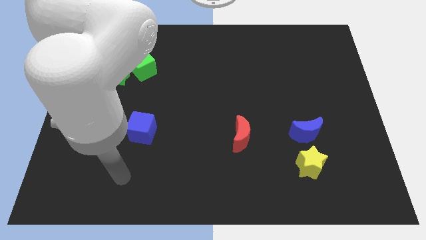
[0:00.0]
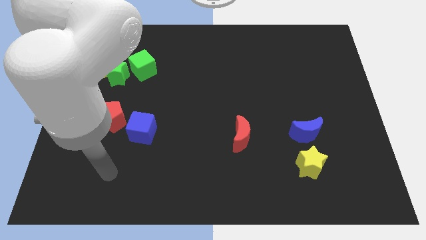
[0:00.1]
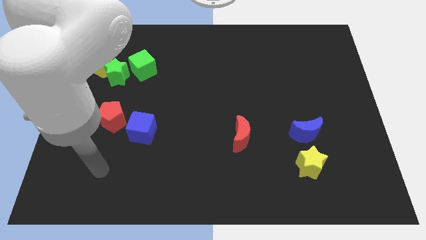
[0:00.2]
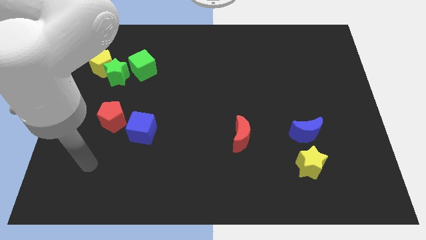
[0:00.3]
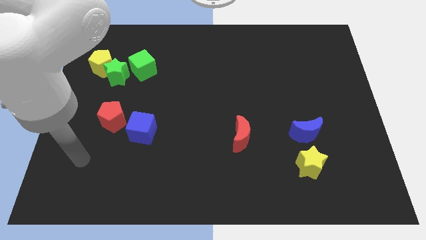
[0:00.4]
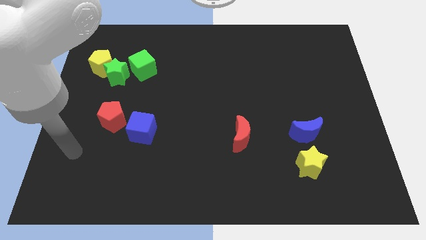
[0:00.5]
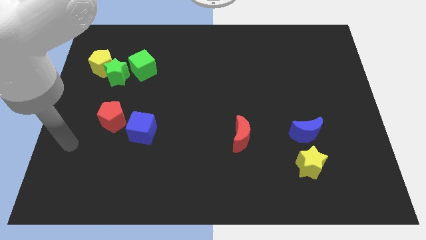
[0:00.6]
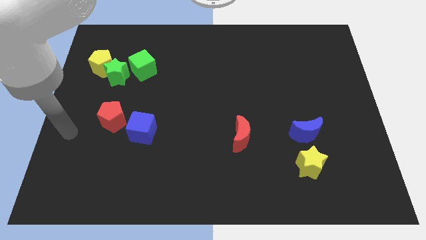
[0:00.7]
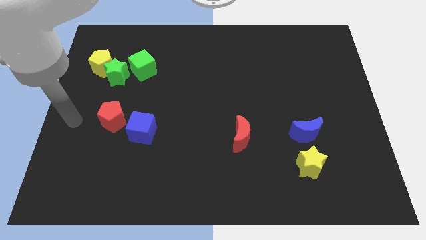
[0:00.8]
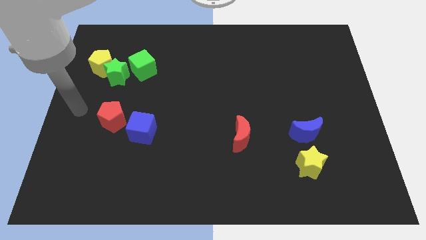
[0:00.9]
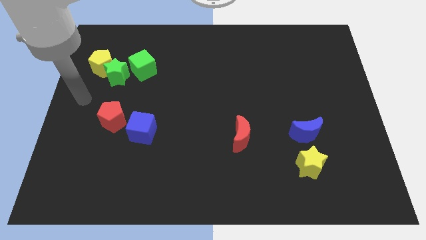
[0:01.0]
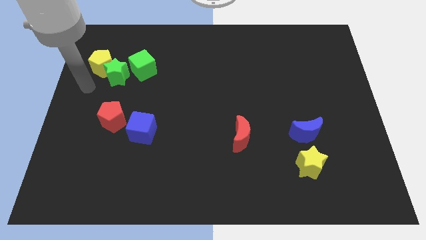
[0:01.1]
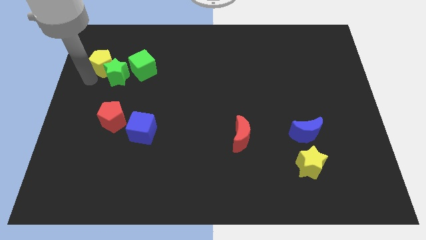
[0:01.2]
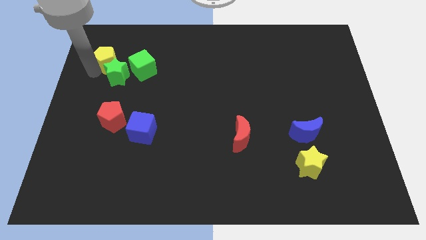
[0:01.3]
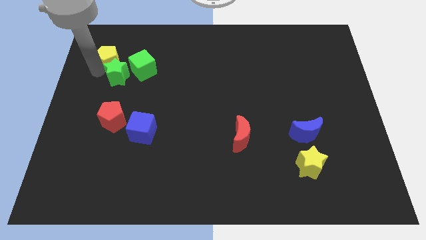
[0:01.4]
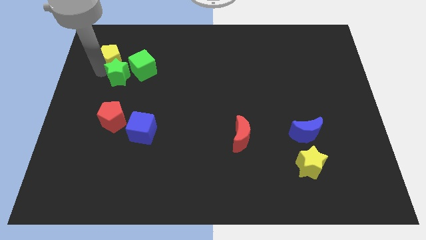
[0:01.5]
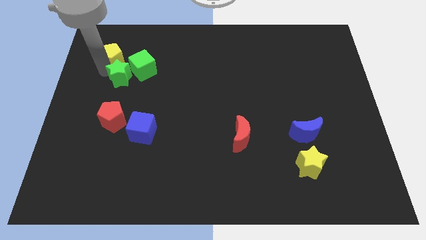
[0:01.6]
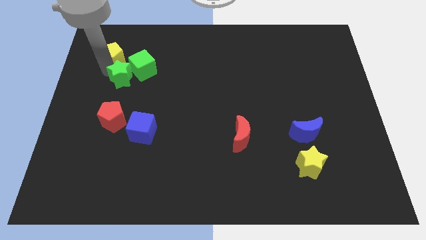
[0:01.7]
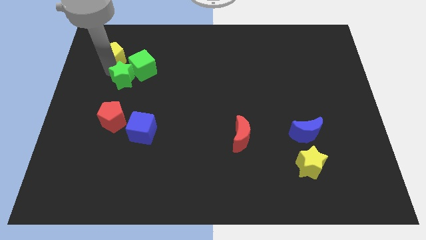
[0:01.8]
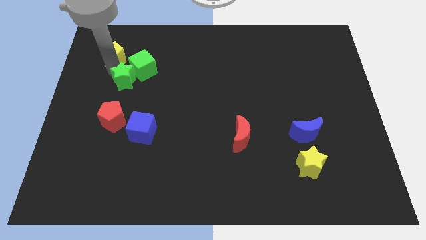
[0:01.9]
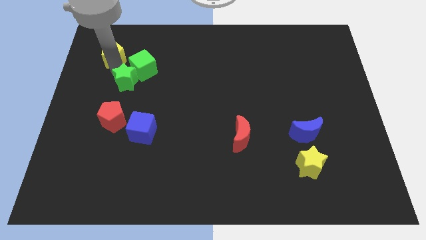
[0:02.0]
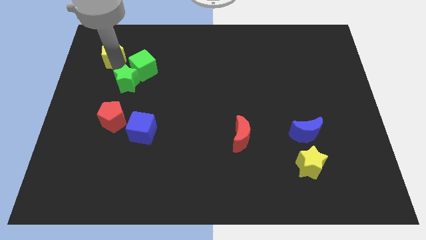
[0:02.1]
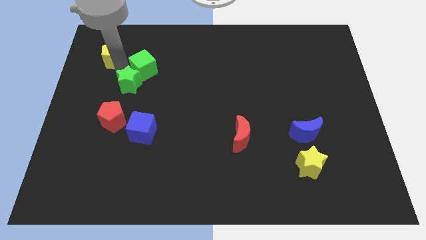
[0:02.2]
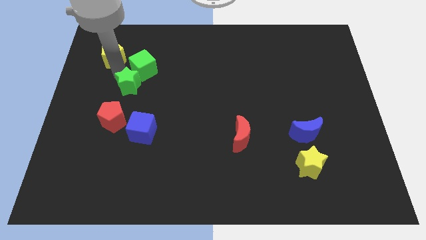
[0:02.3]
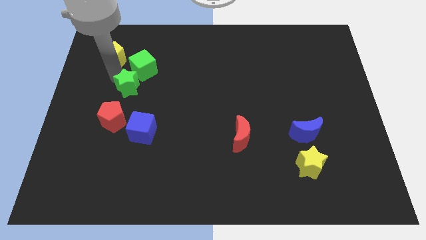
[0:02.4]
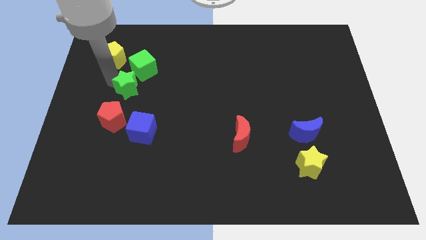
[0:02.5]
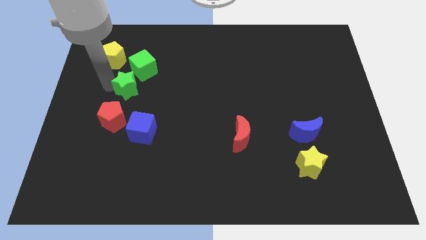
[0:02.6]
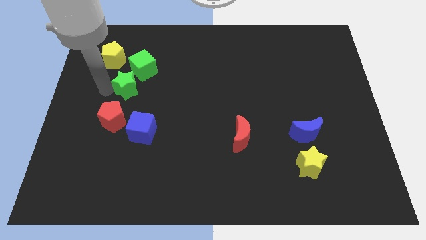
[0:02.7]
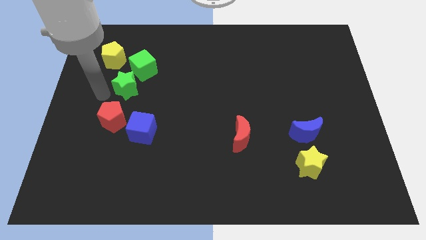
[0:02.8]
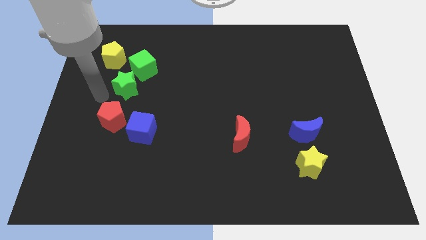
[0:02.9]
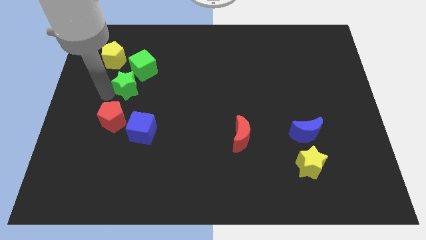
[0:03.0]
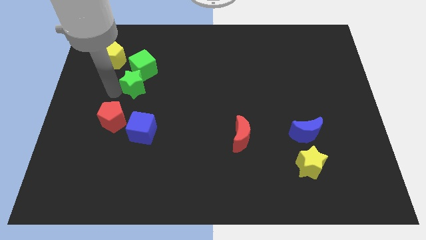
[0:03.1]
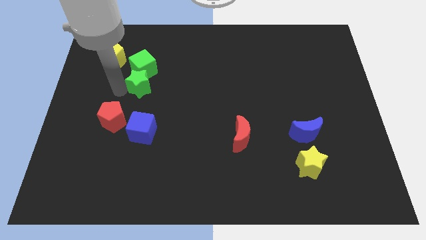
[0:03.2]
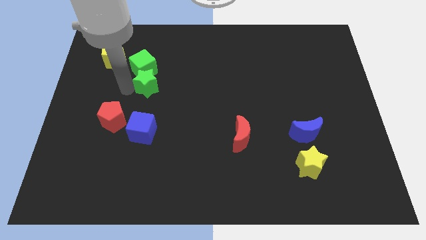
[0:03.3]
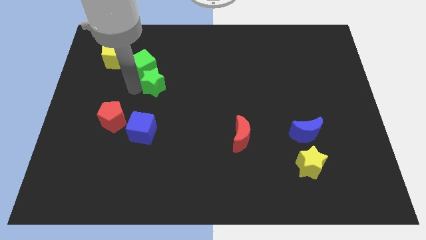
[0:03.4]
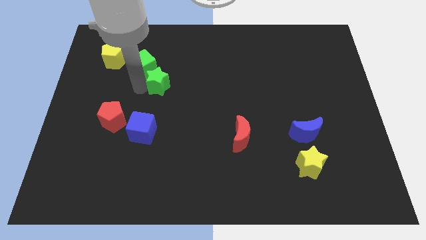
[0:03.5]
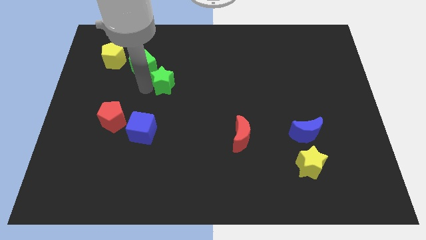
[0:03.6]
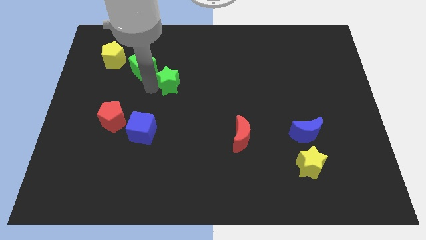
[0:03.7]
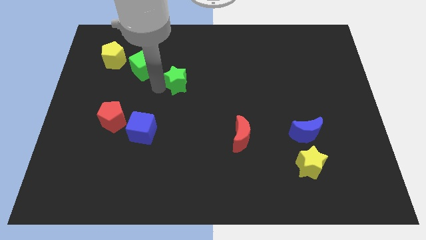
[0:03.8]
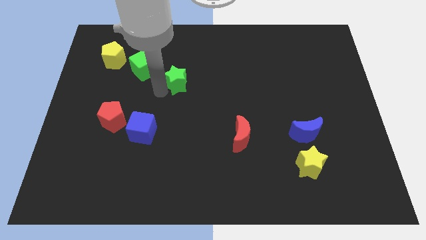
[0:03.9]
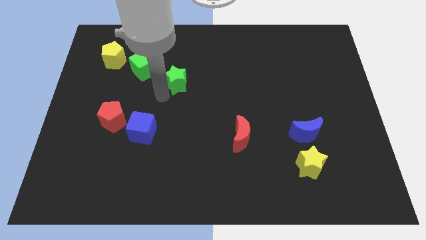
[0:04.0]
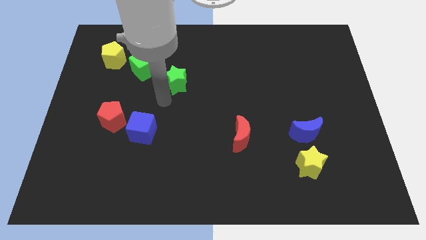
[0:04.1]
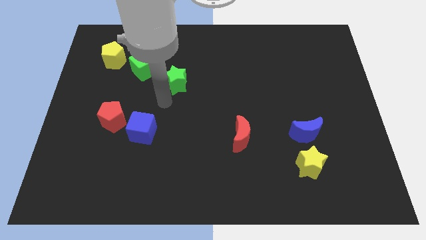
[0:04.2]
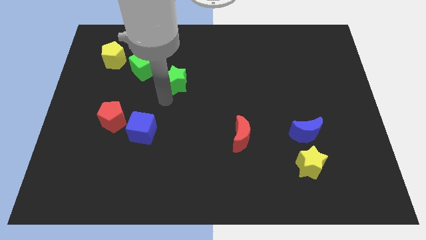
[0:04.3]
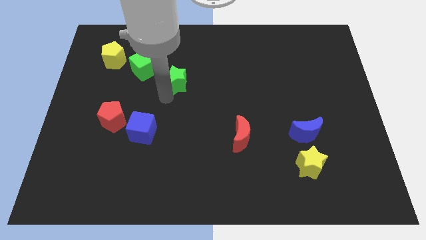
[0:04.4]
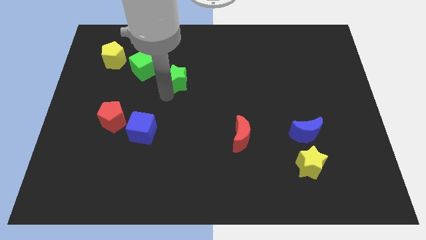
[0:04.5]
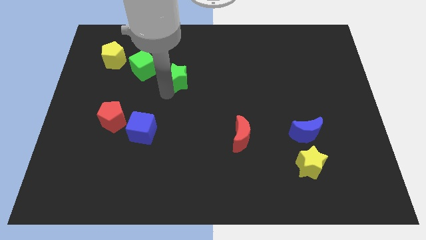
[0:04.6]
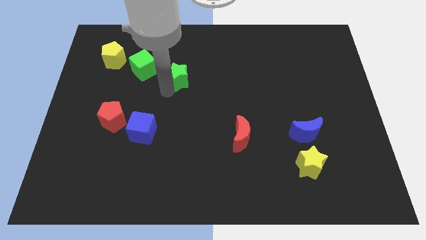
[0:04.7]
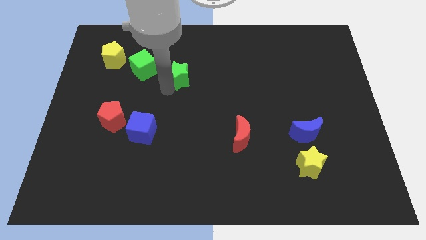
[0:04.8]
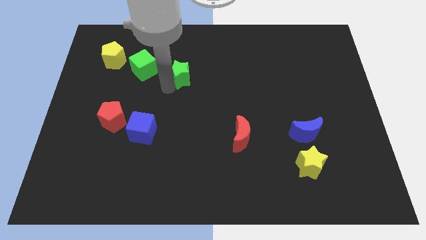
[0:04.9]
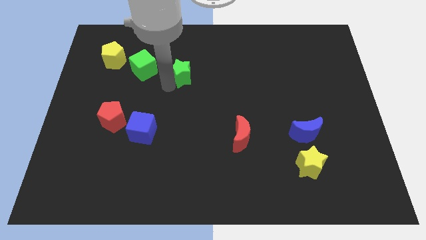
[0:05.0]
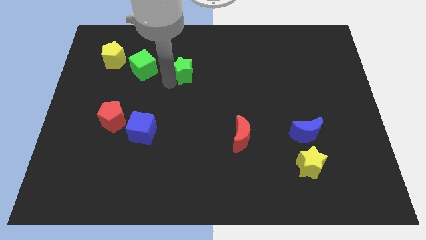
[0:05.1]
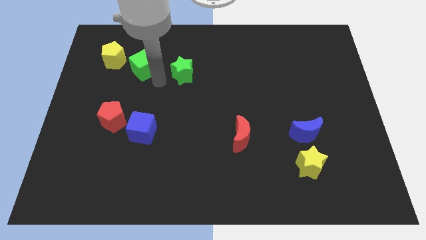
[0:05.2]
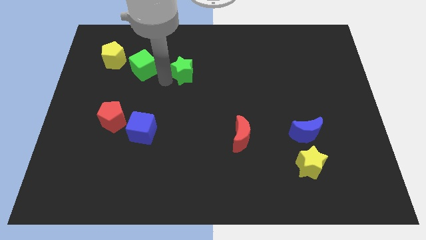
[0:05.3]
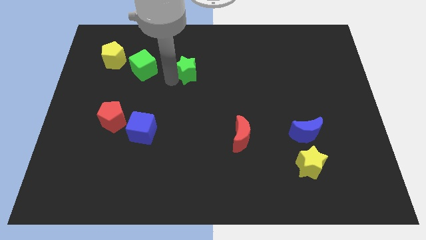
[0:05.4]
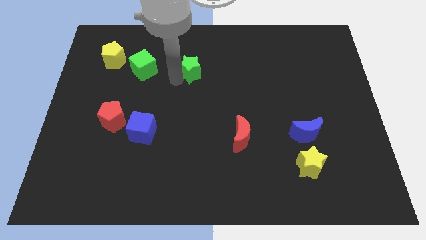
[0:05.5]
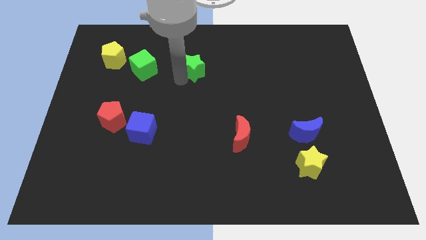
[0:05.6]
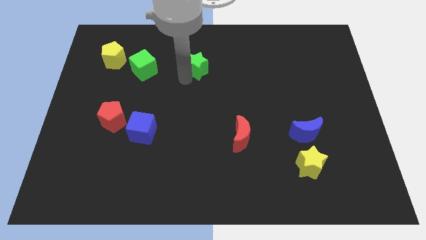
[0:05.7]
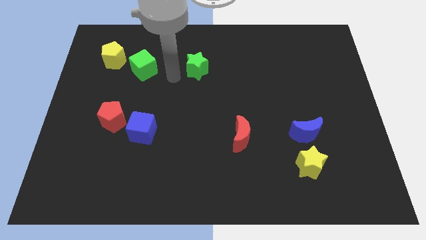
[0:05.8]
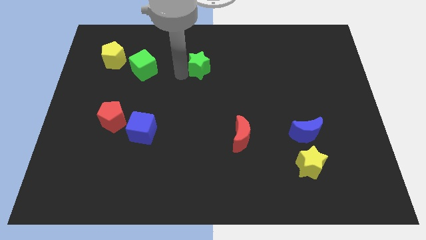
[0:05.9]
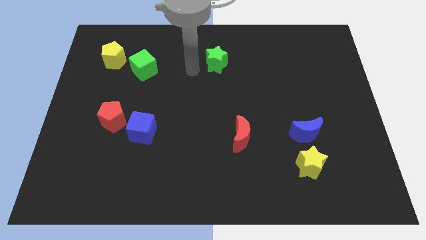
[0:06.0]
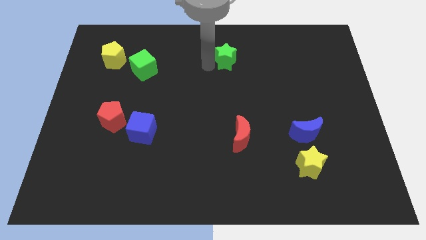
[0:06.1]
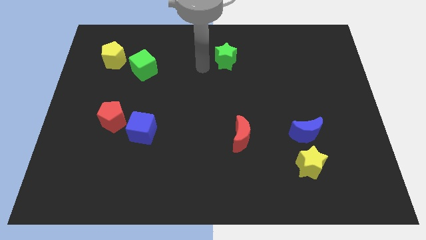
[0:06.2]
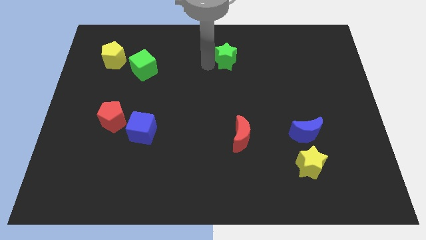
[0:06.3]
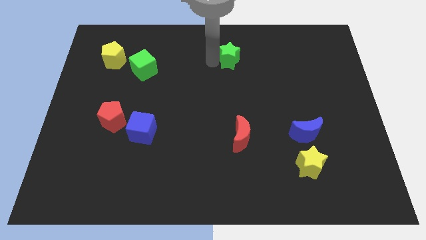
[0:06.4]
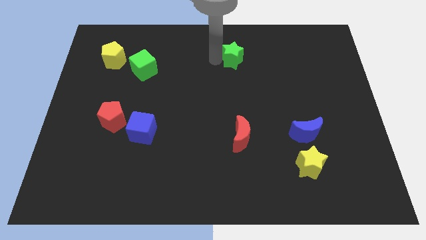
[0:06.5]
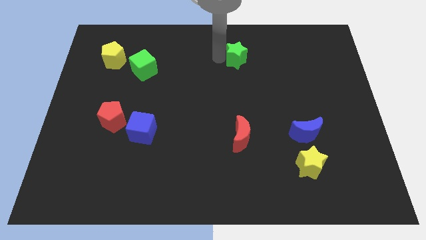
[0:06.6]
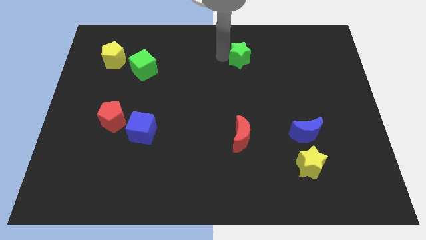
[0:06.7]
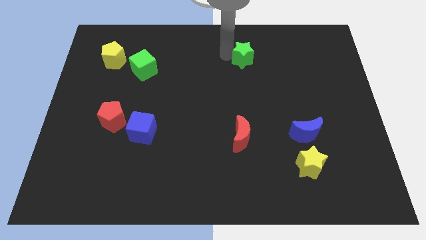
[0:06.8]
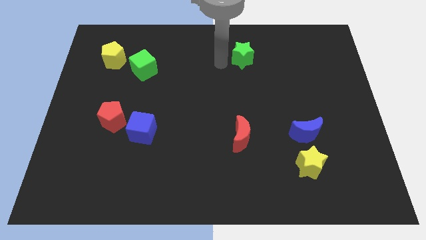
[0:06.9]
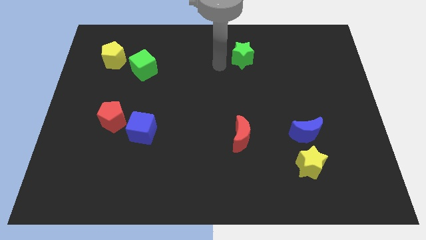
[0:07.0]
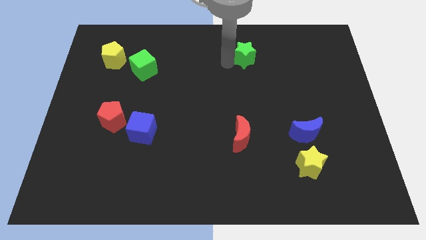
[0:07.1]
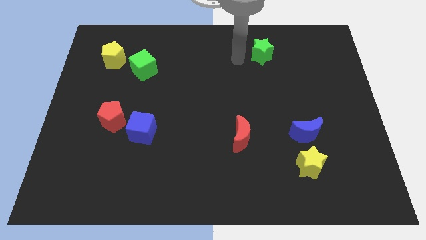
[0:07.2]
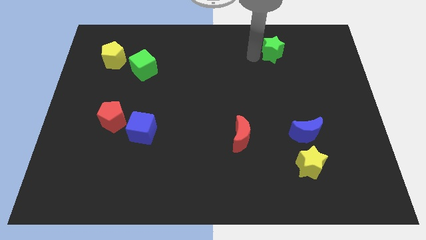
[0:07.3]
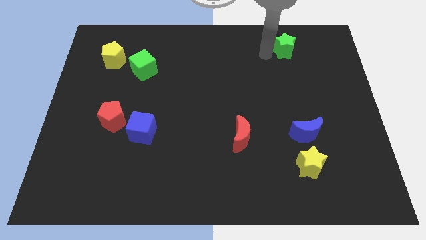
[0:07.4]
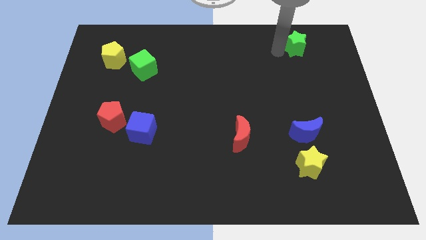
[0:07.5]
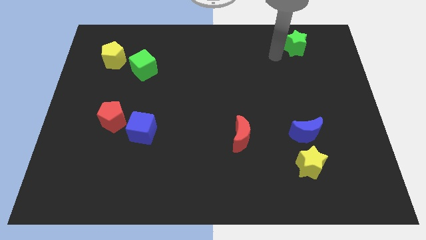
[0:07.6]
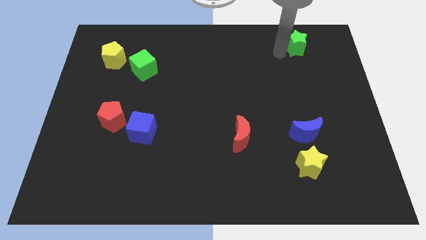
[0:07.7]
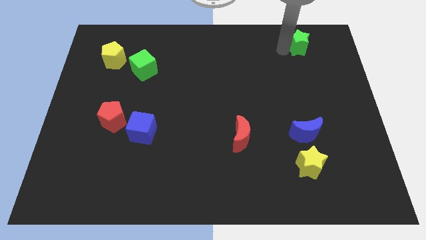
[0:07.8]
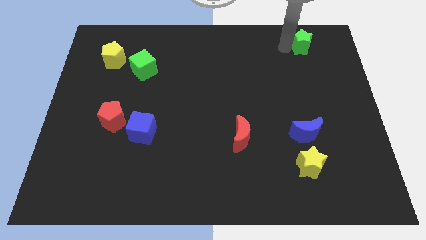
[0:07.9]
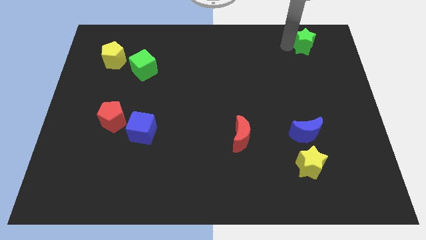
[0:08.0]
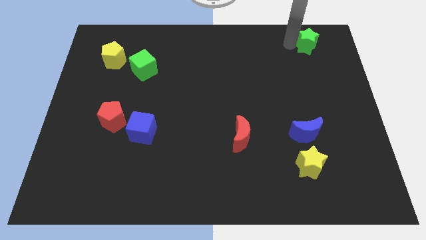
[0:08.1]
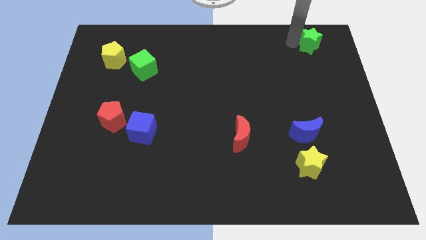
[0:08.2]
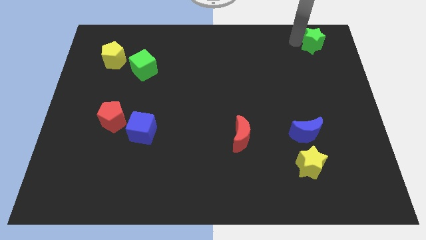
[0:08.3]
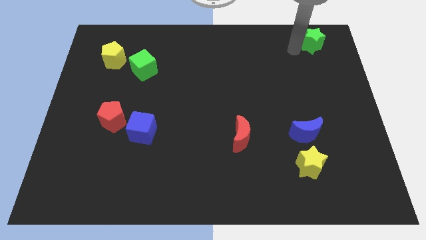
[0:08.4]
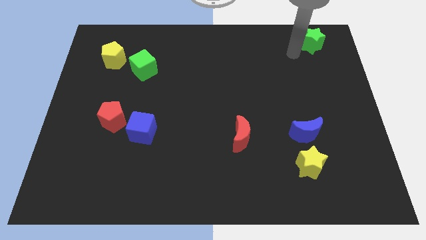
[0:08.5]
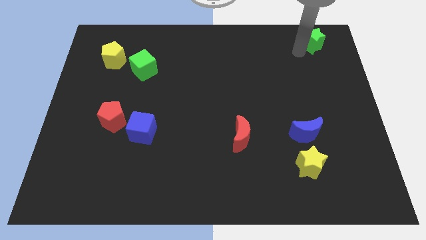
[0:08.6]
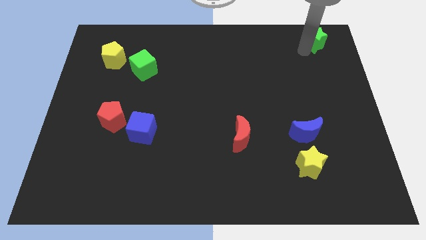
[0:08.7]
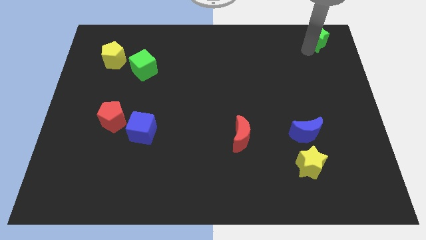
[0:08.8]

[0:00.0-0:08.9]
push the green star to the upper right corner
